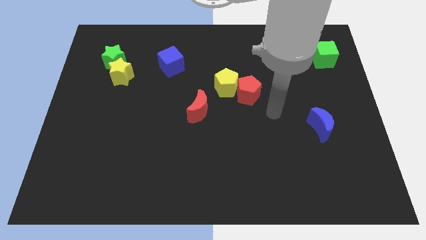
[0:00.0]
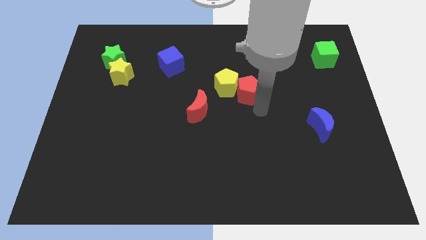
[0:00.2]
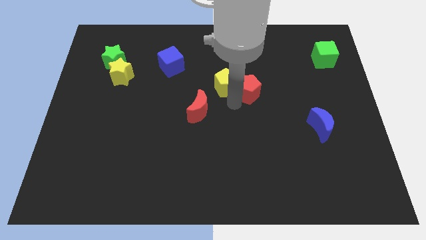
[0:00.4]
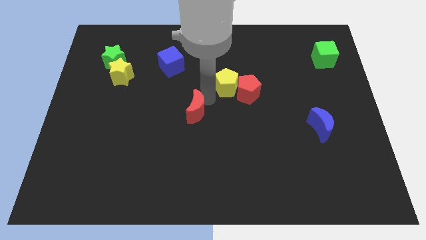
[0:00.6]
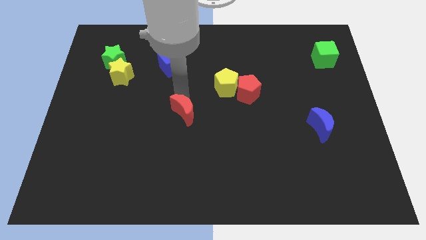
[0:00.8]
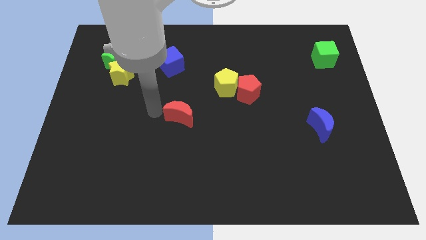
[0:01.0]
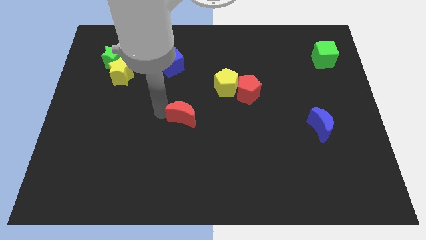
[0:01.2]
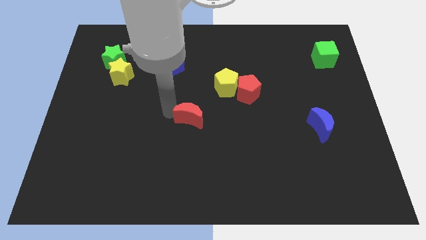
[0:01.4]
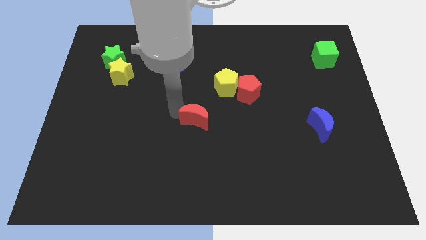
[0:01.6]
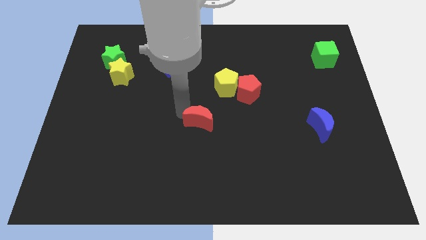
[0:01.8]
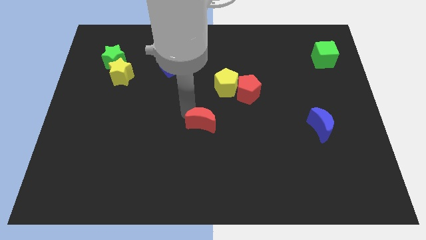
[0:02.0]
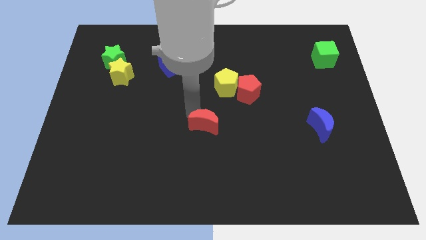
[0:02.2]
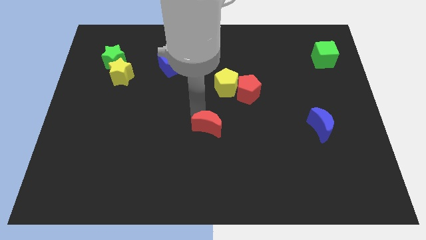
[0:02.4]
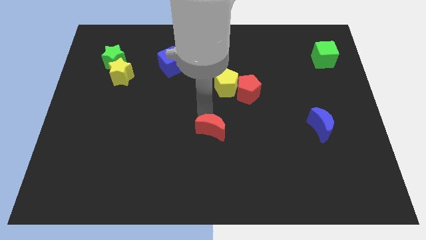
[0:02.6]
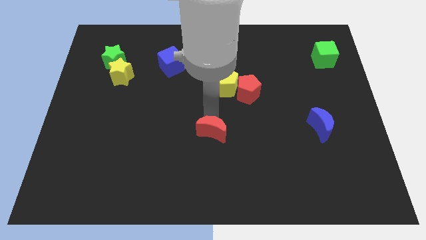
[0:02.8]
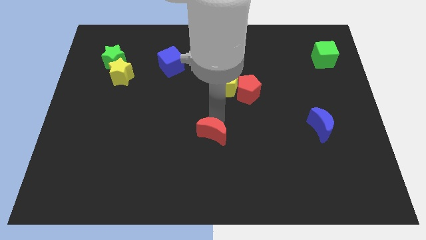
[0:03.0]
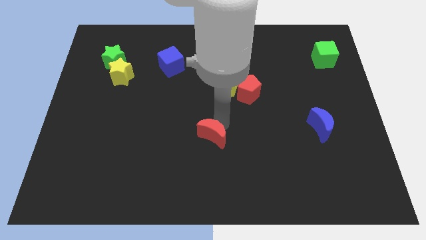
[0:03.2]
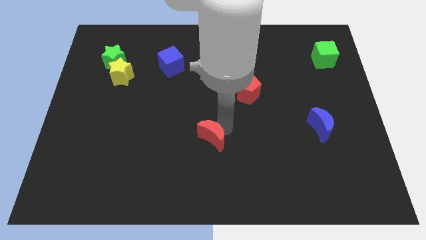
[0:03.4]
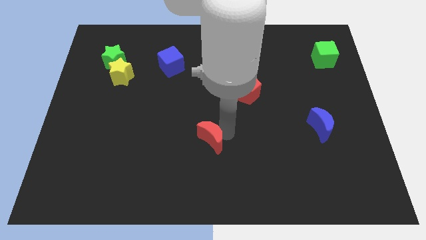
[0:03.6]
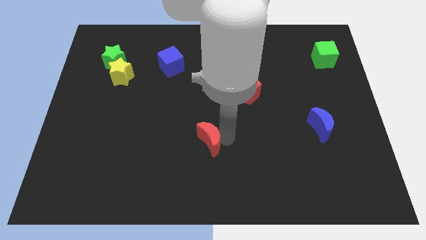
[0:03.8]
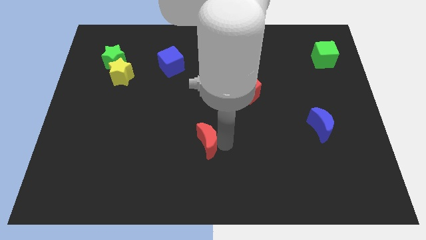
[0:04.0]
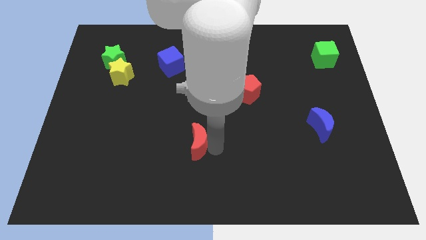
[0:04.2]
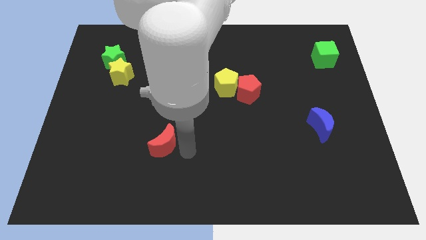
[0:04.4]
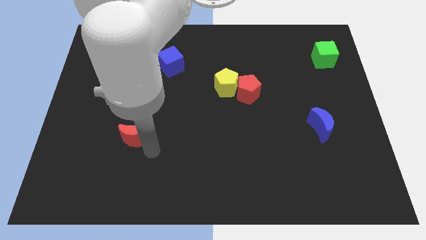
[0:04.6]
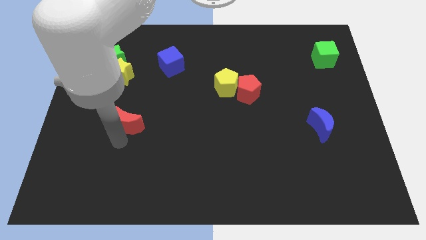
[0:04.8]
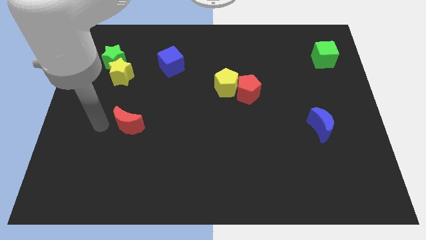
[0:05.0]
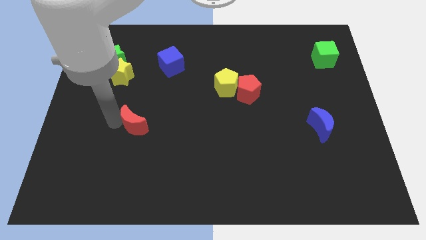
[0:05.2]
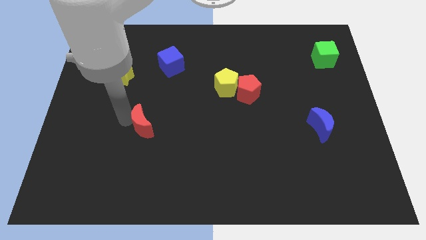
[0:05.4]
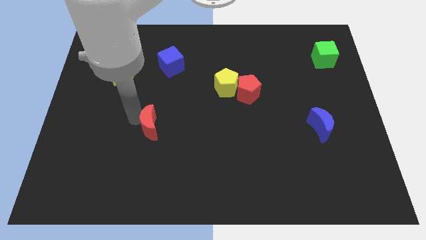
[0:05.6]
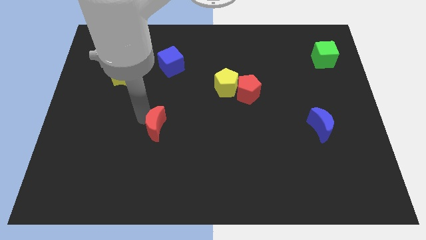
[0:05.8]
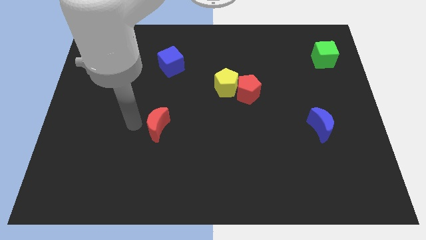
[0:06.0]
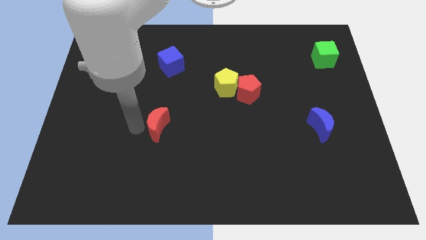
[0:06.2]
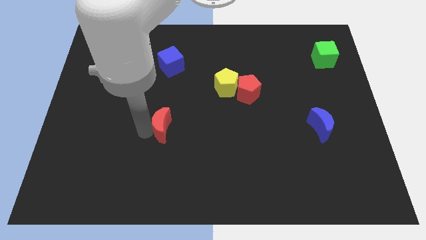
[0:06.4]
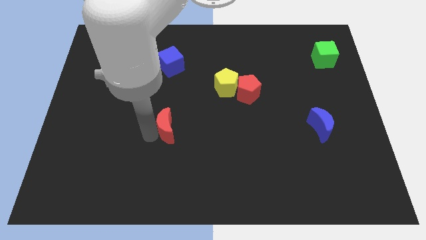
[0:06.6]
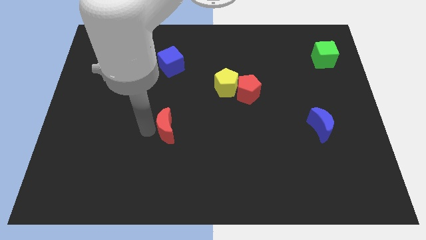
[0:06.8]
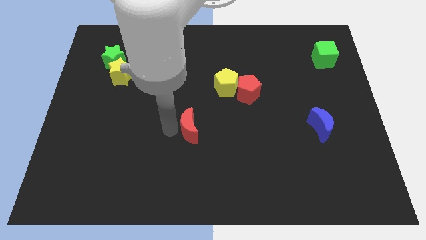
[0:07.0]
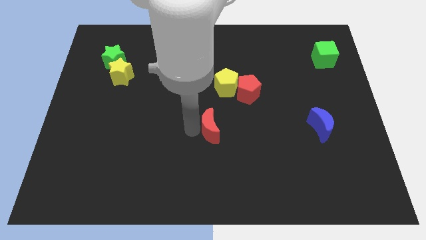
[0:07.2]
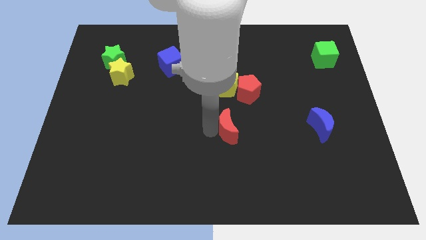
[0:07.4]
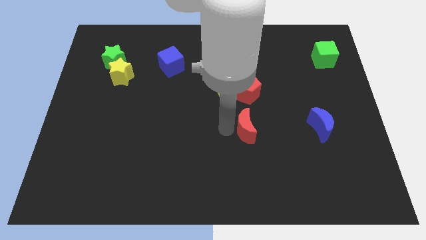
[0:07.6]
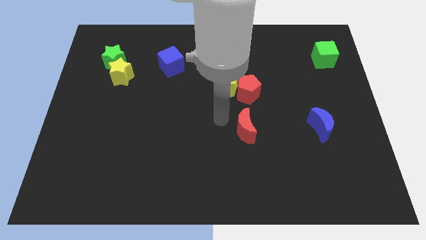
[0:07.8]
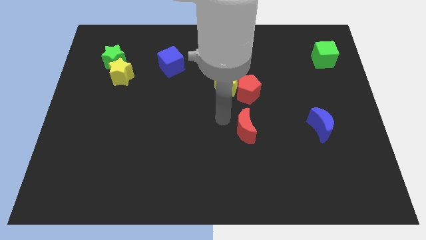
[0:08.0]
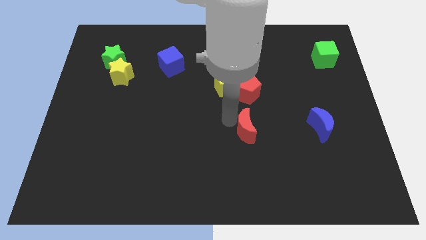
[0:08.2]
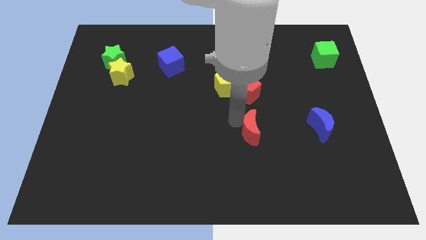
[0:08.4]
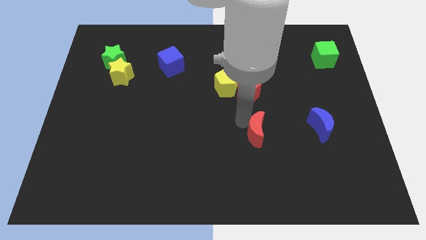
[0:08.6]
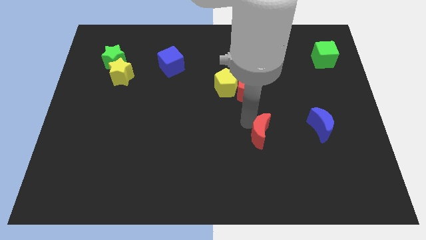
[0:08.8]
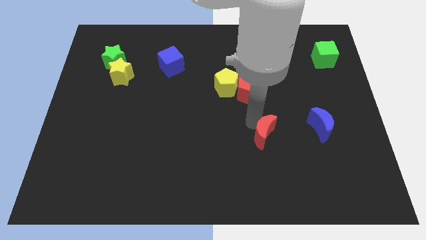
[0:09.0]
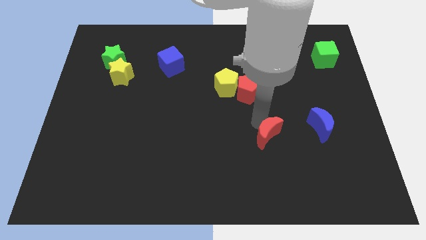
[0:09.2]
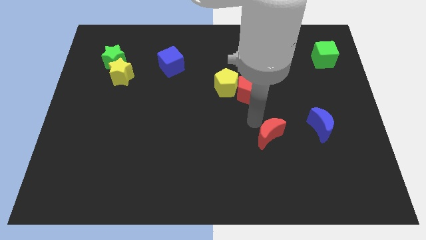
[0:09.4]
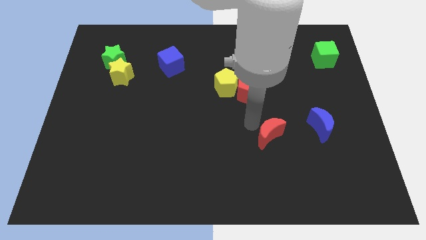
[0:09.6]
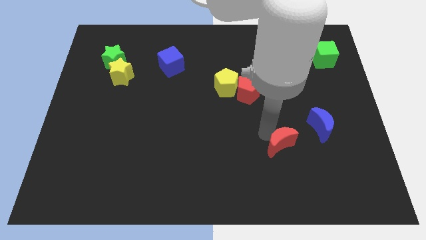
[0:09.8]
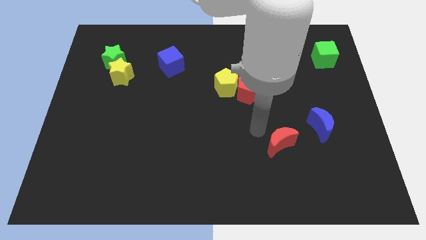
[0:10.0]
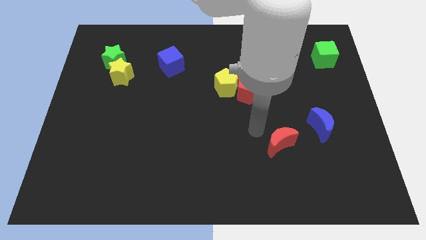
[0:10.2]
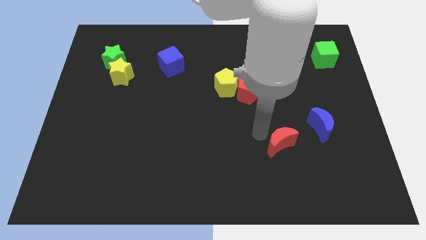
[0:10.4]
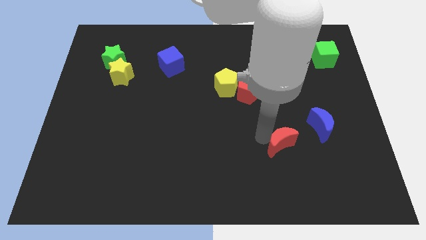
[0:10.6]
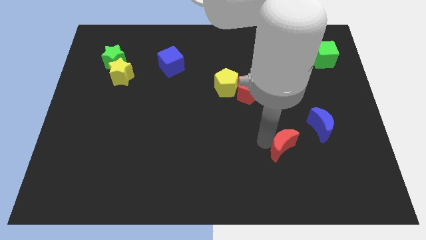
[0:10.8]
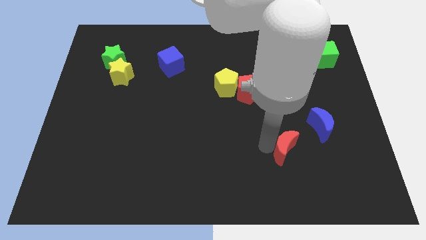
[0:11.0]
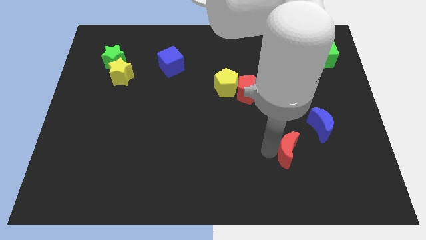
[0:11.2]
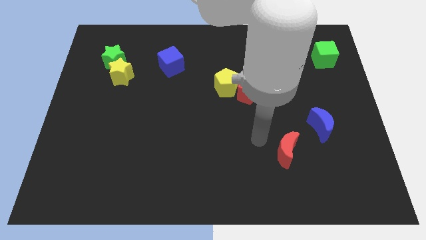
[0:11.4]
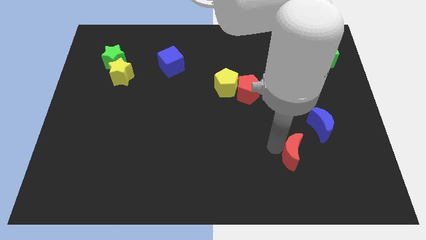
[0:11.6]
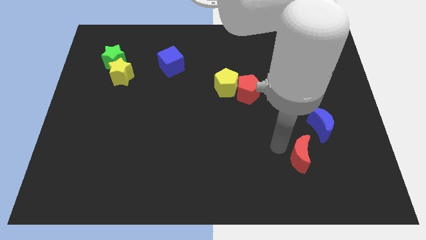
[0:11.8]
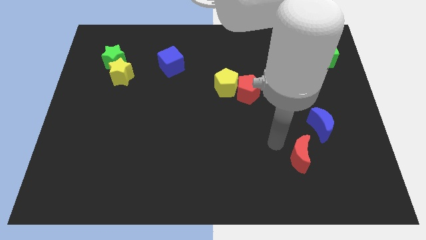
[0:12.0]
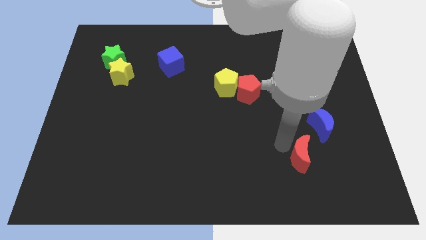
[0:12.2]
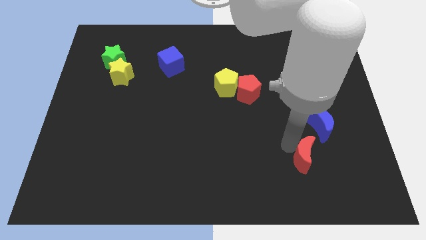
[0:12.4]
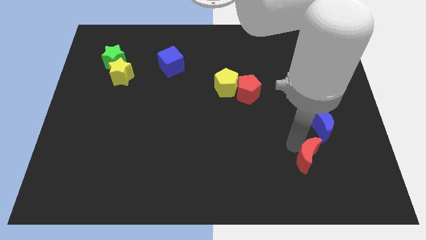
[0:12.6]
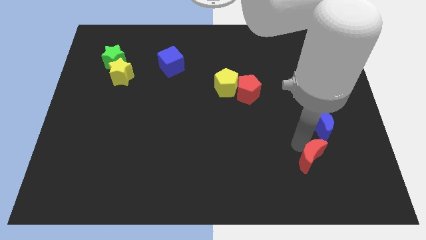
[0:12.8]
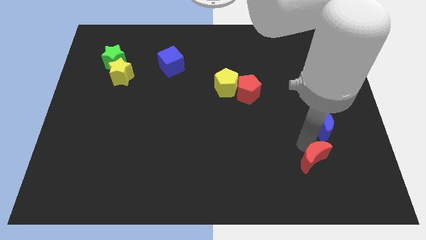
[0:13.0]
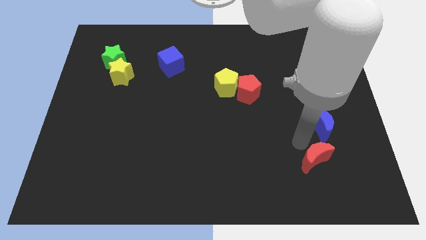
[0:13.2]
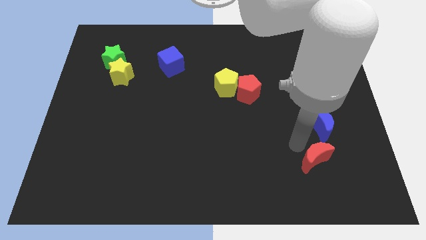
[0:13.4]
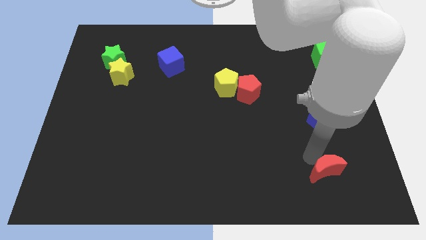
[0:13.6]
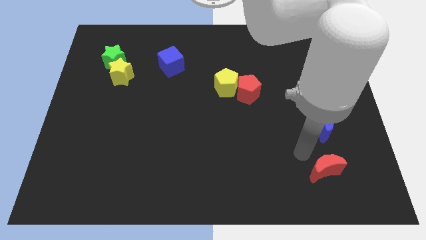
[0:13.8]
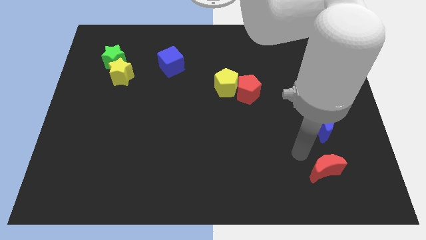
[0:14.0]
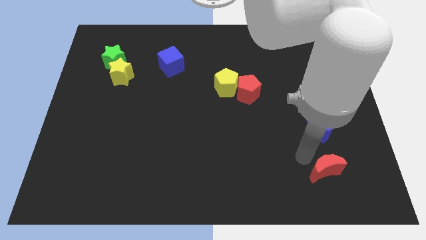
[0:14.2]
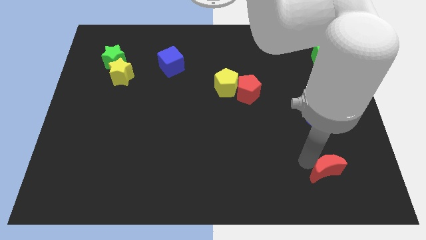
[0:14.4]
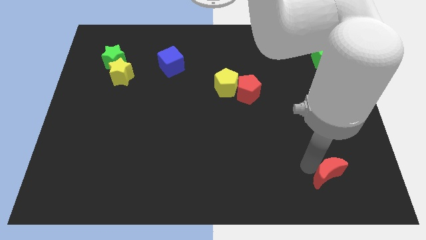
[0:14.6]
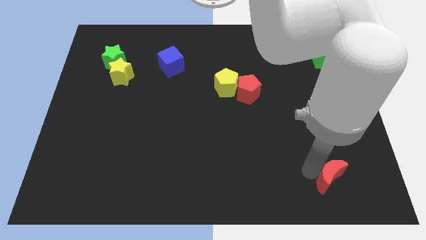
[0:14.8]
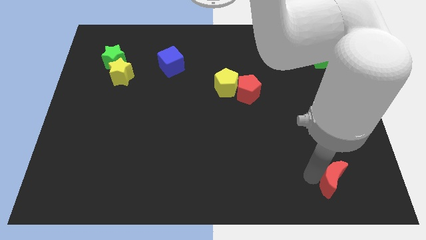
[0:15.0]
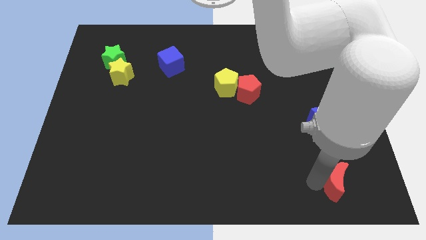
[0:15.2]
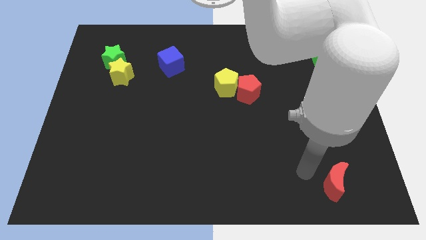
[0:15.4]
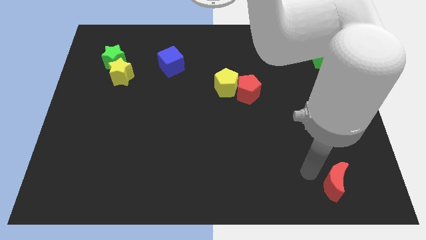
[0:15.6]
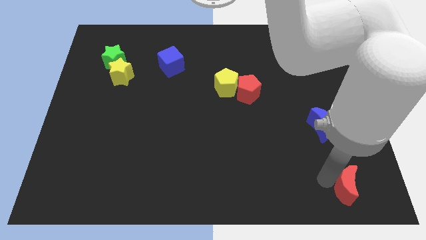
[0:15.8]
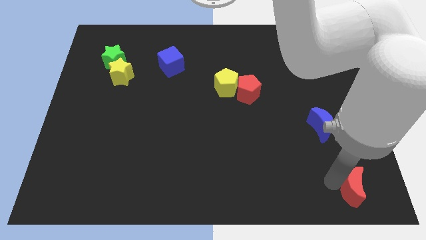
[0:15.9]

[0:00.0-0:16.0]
push the red moon to the bottom right of the board
